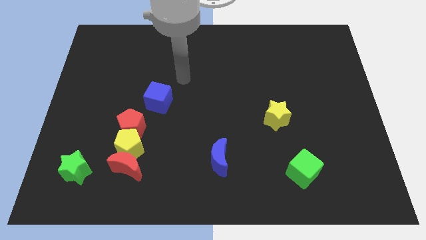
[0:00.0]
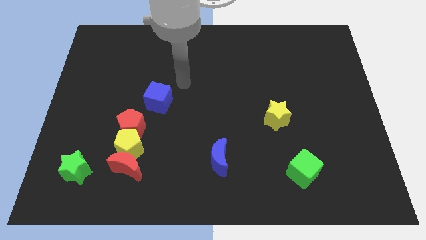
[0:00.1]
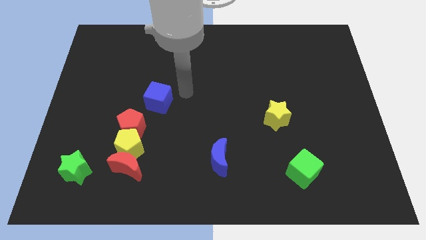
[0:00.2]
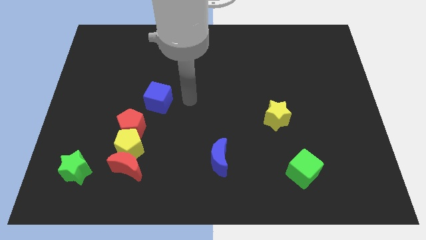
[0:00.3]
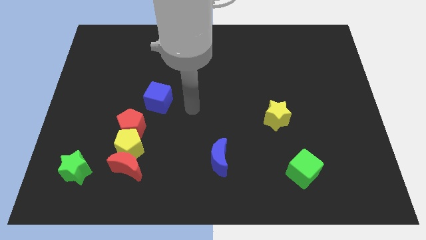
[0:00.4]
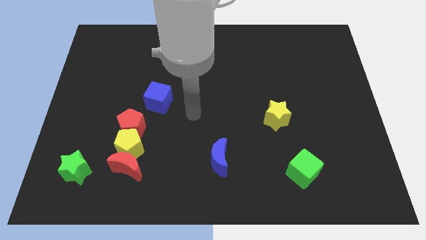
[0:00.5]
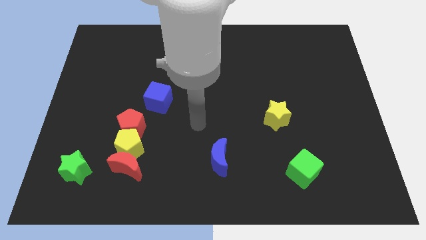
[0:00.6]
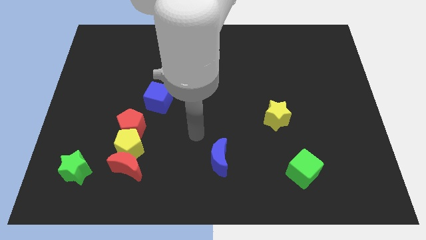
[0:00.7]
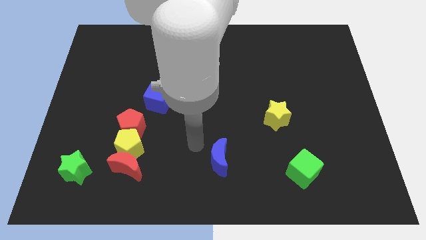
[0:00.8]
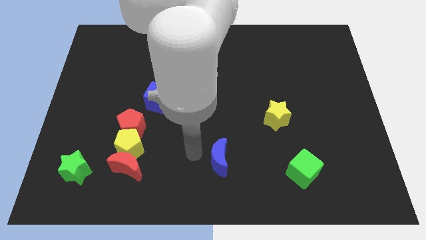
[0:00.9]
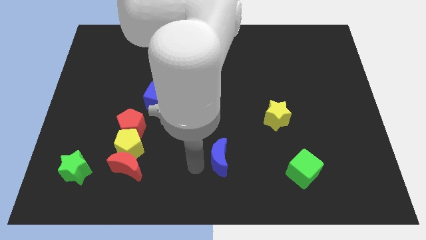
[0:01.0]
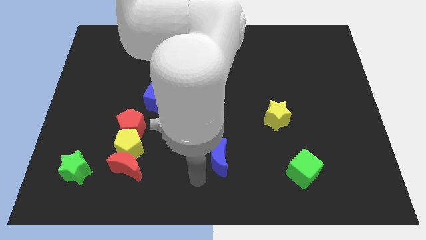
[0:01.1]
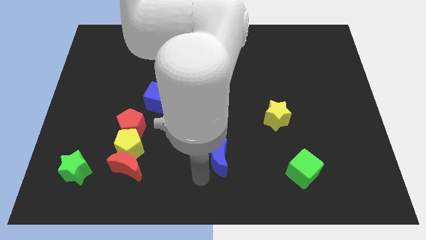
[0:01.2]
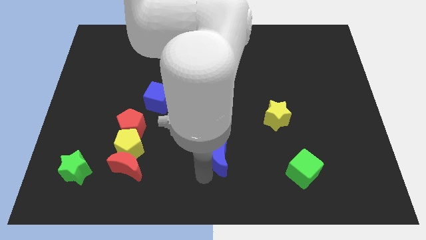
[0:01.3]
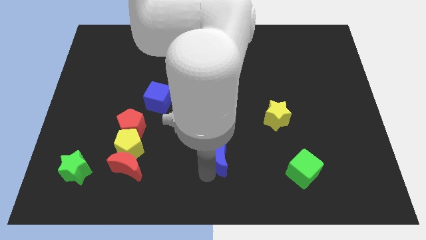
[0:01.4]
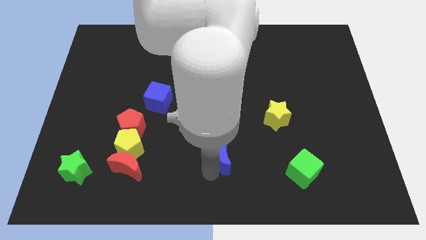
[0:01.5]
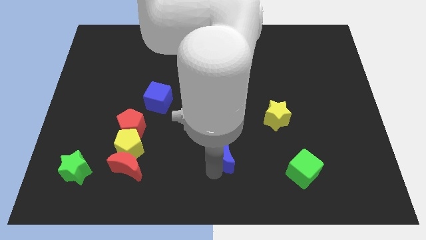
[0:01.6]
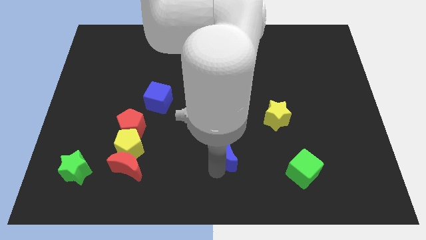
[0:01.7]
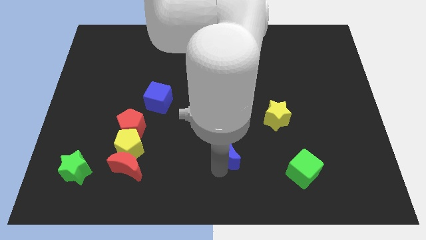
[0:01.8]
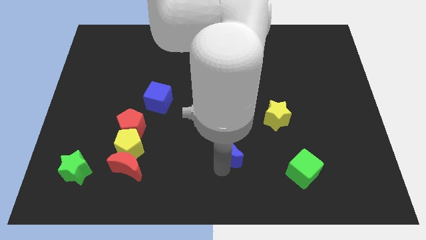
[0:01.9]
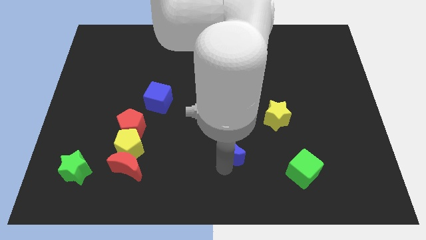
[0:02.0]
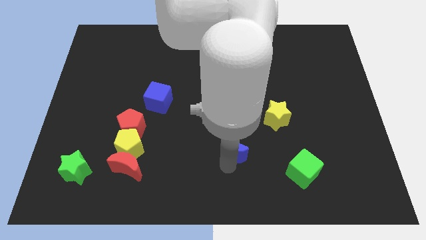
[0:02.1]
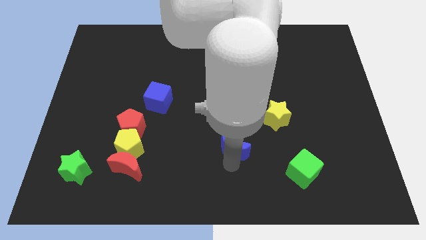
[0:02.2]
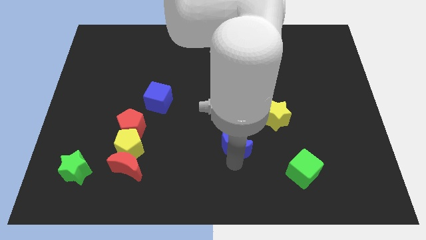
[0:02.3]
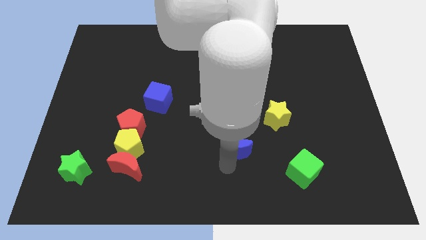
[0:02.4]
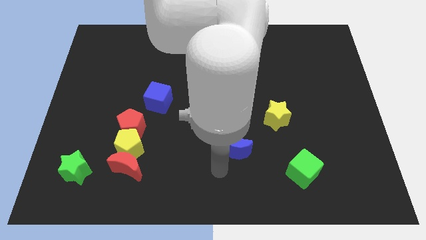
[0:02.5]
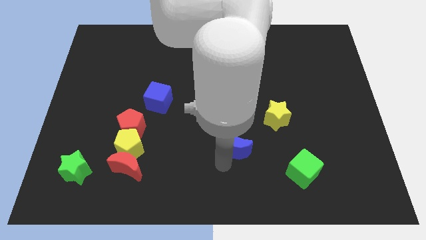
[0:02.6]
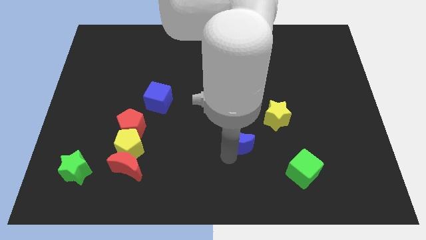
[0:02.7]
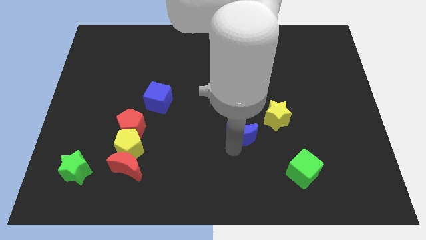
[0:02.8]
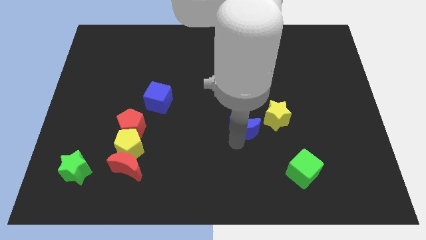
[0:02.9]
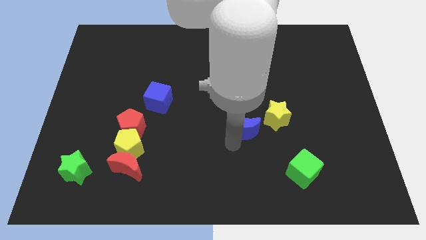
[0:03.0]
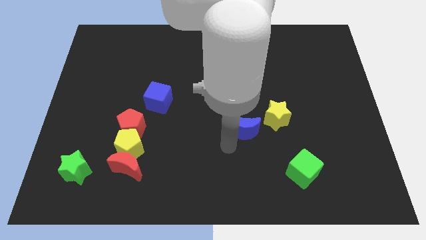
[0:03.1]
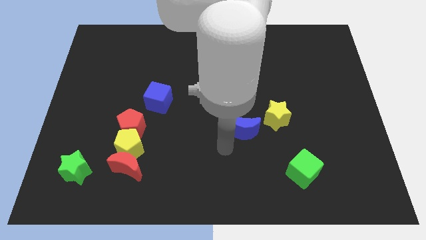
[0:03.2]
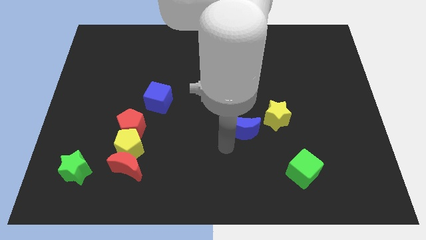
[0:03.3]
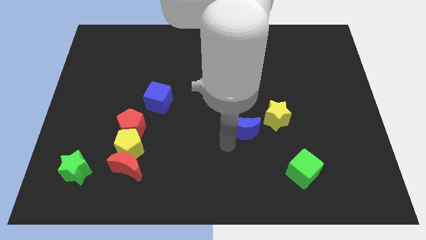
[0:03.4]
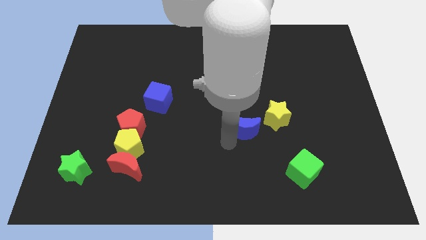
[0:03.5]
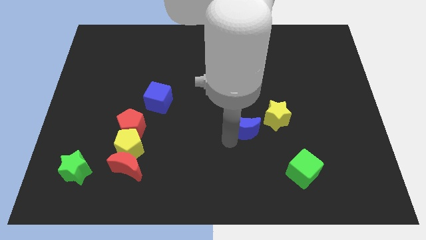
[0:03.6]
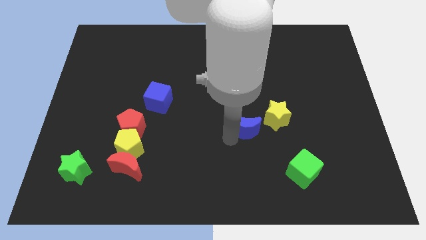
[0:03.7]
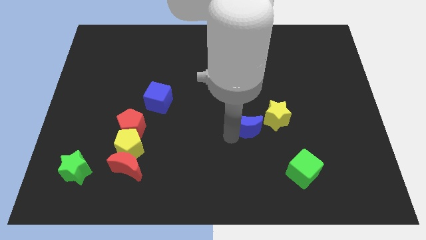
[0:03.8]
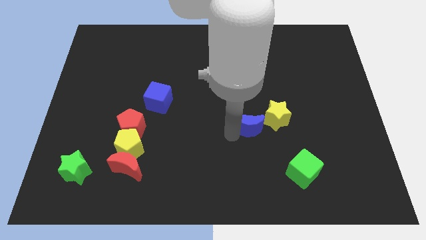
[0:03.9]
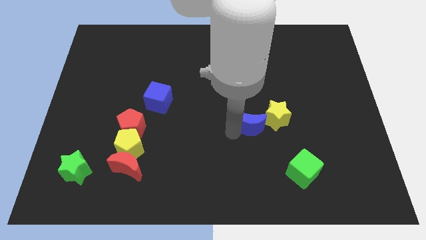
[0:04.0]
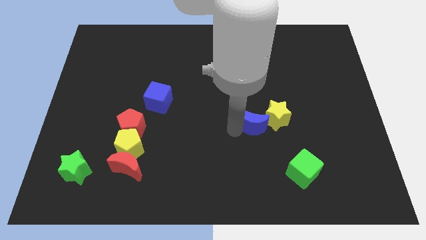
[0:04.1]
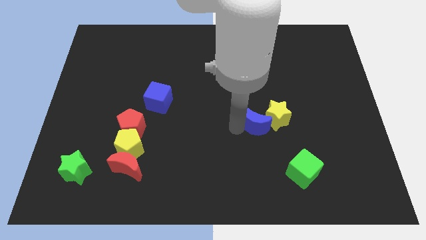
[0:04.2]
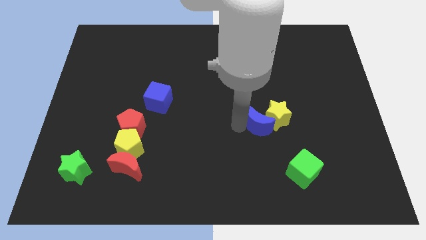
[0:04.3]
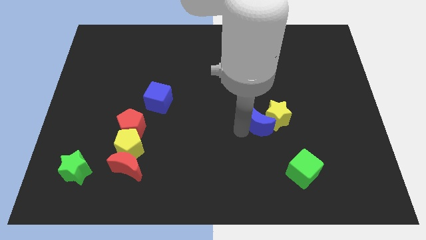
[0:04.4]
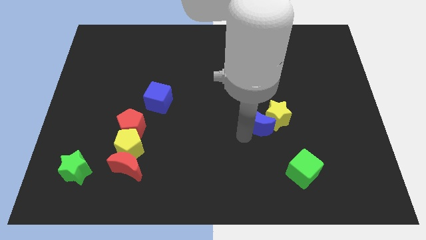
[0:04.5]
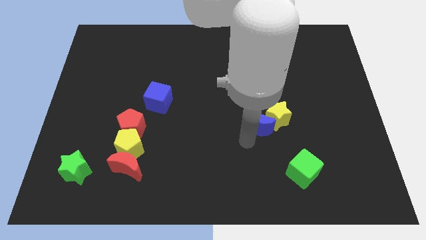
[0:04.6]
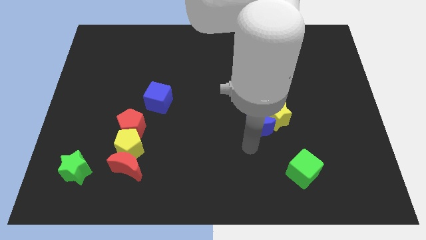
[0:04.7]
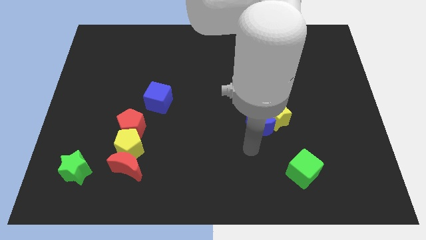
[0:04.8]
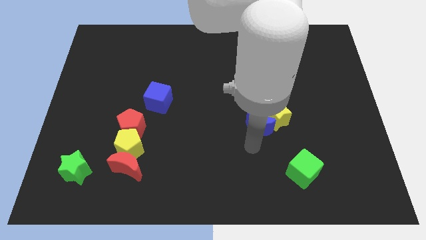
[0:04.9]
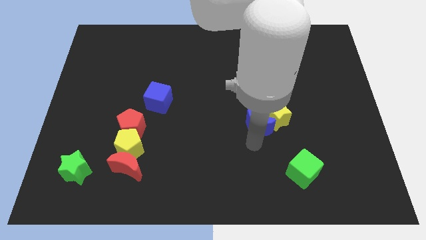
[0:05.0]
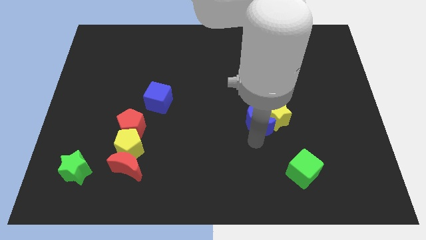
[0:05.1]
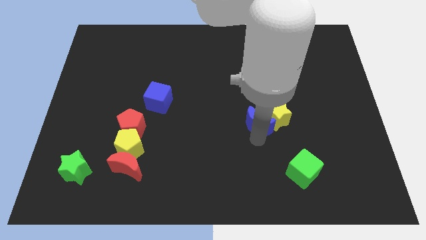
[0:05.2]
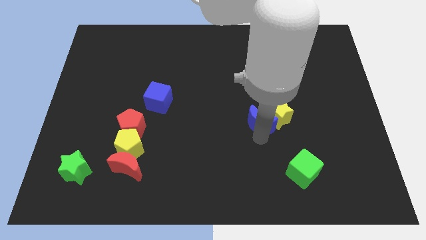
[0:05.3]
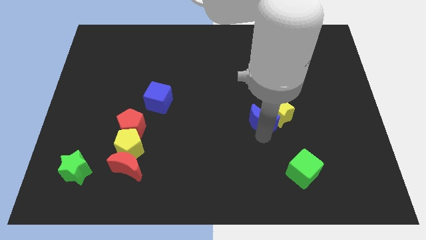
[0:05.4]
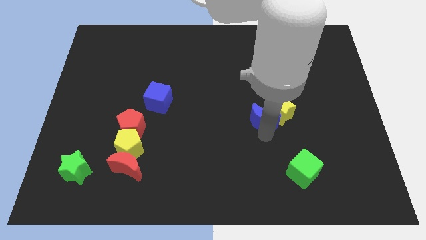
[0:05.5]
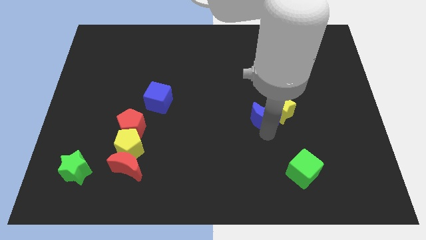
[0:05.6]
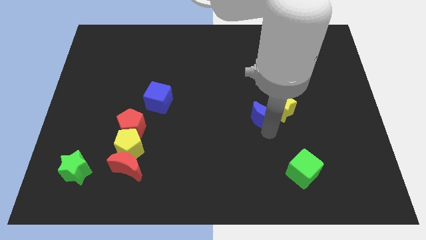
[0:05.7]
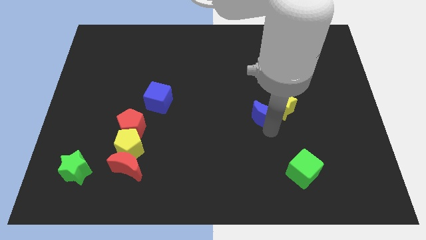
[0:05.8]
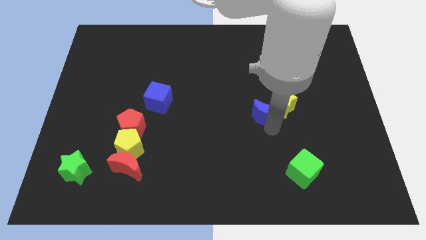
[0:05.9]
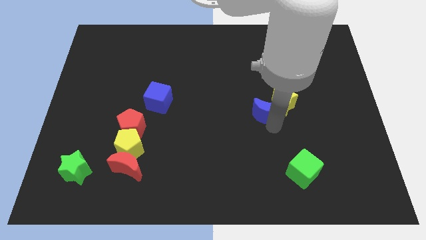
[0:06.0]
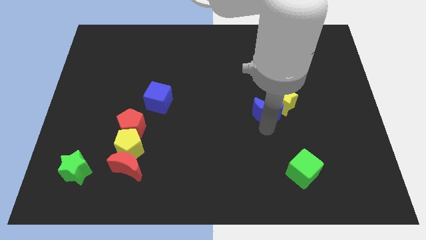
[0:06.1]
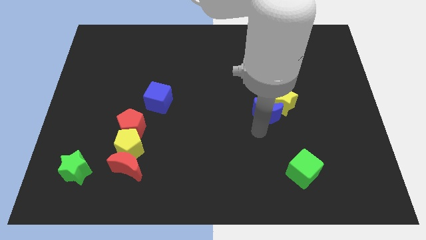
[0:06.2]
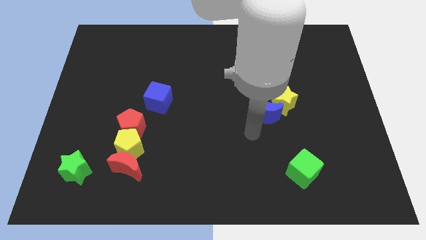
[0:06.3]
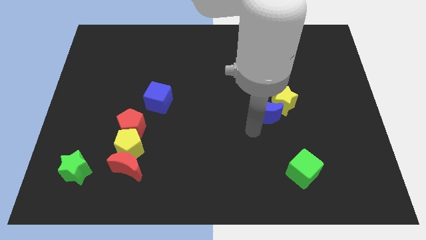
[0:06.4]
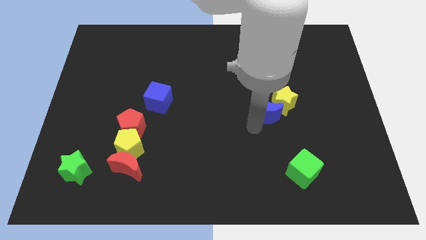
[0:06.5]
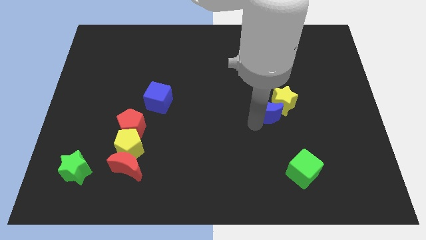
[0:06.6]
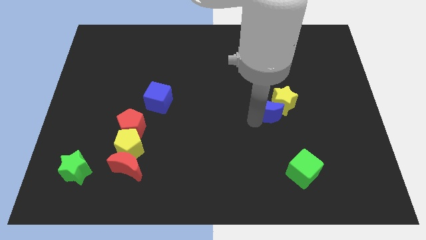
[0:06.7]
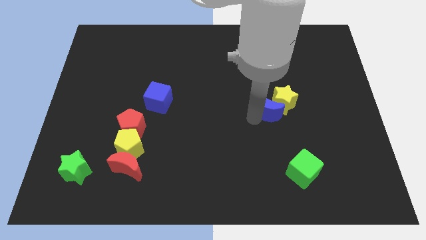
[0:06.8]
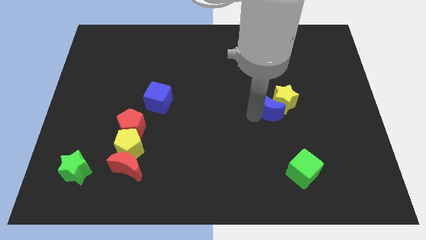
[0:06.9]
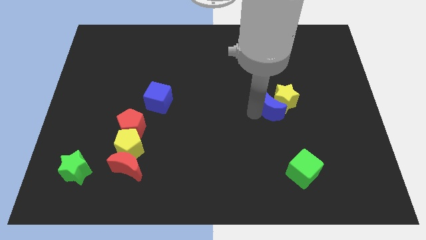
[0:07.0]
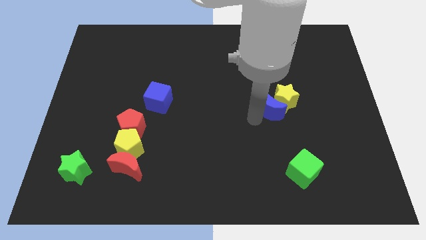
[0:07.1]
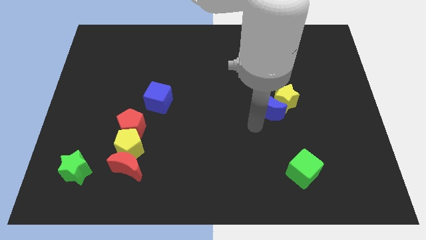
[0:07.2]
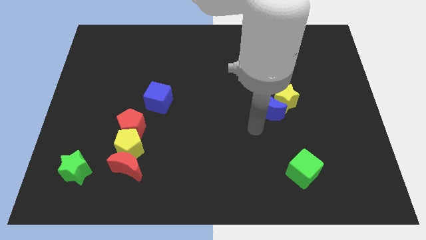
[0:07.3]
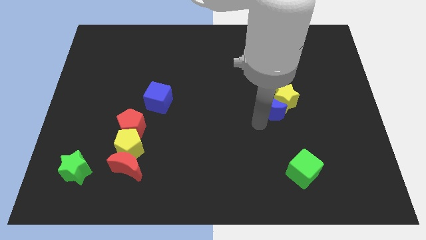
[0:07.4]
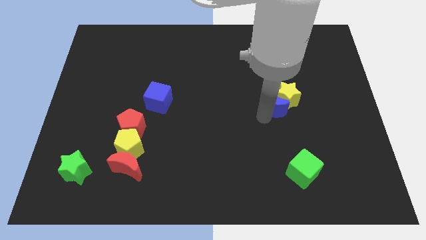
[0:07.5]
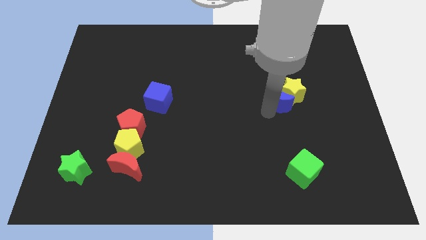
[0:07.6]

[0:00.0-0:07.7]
slide the blue moon diagonally upwards and to the right
